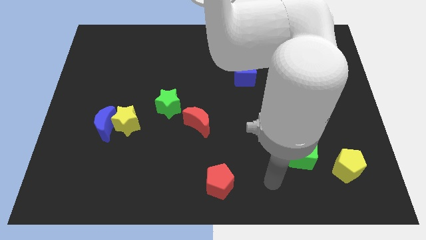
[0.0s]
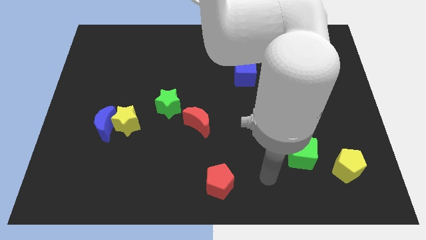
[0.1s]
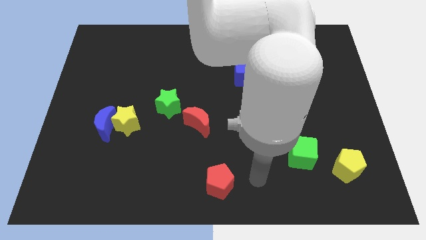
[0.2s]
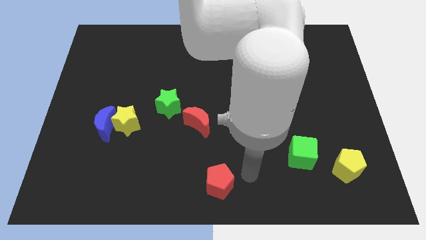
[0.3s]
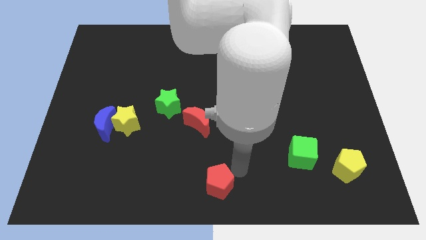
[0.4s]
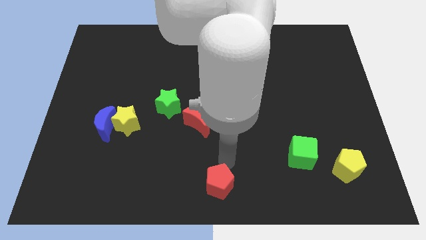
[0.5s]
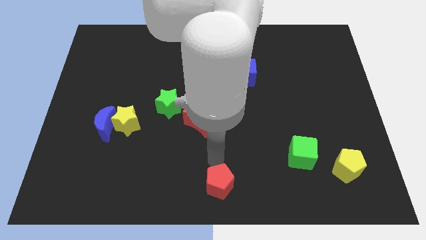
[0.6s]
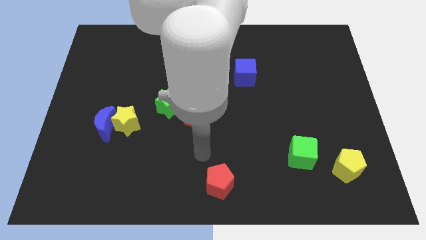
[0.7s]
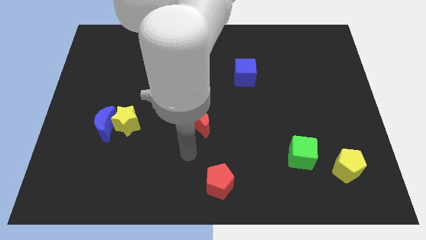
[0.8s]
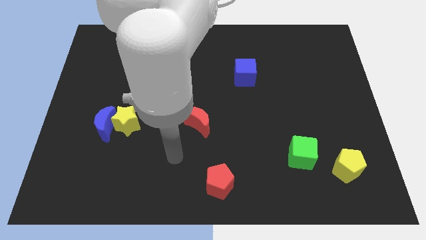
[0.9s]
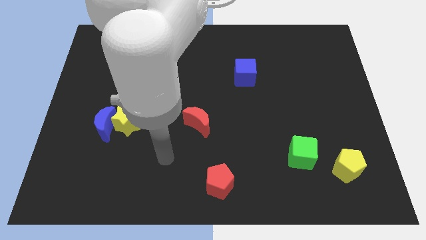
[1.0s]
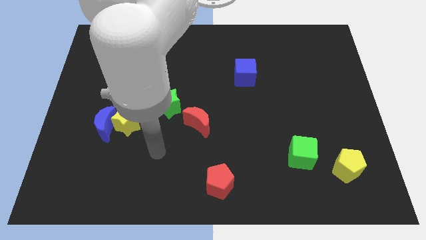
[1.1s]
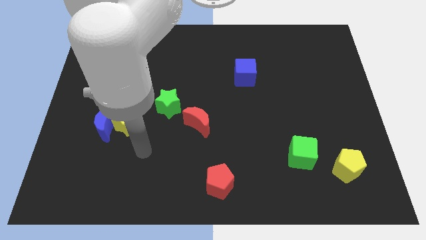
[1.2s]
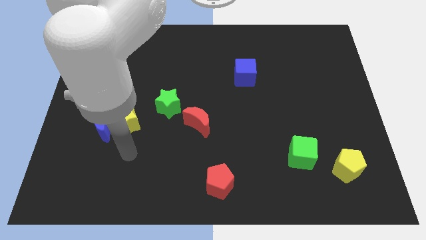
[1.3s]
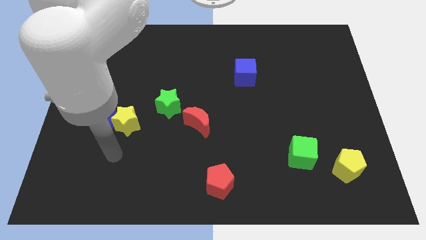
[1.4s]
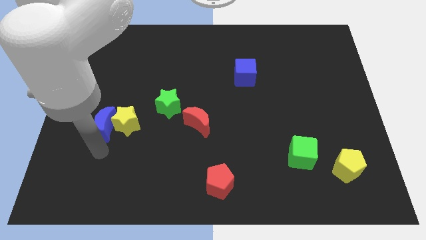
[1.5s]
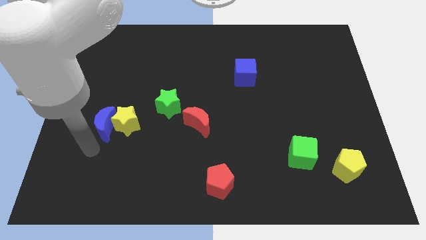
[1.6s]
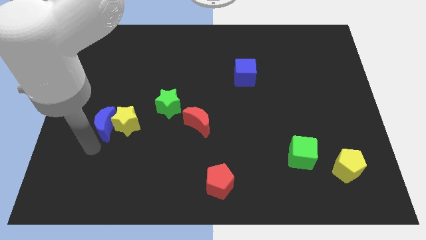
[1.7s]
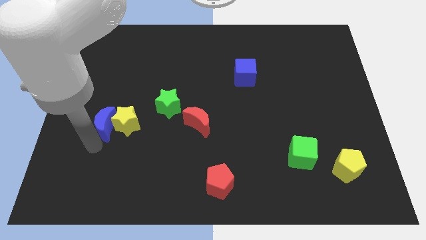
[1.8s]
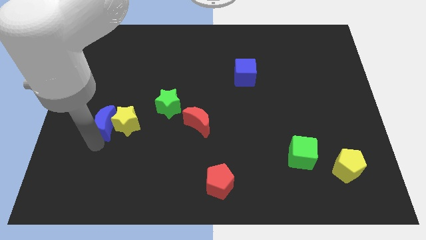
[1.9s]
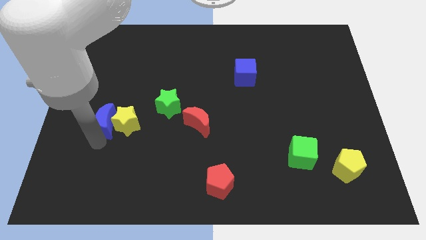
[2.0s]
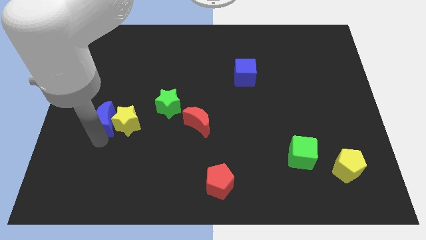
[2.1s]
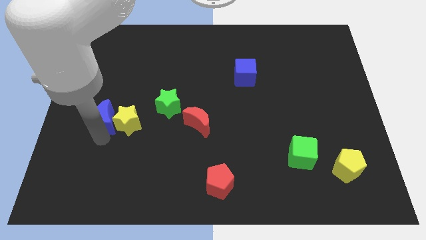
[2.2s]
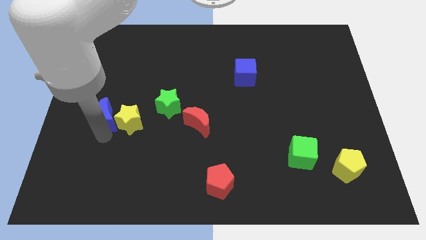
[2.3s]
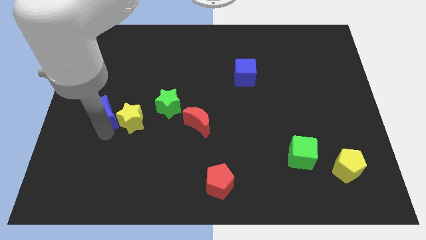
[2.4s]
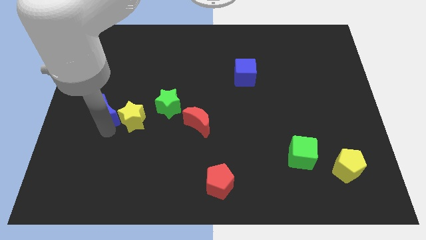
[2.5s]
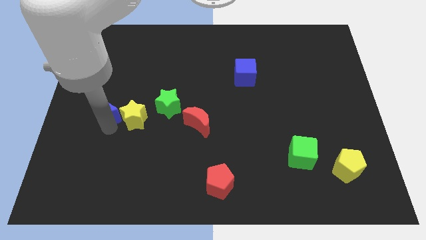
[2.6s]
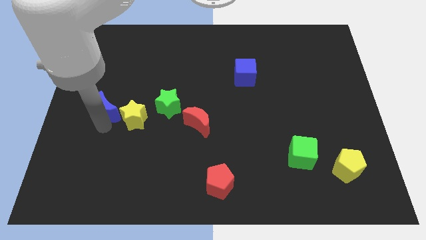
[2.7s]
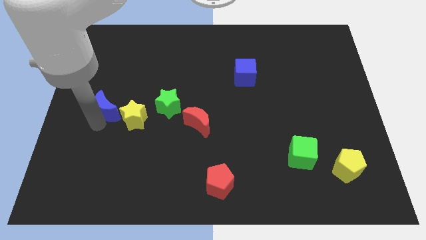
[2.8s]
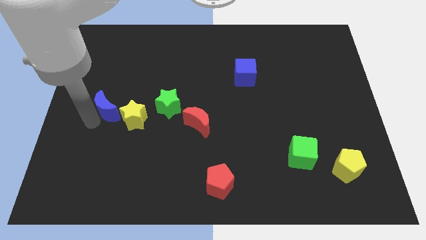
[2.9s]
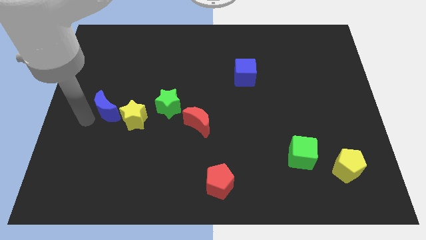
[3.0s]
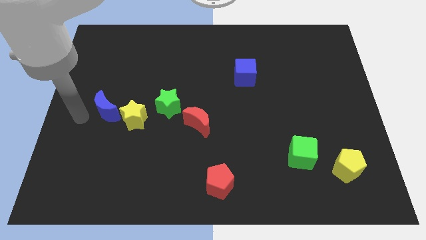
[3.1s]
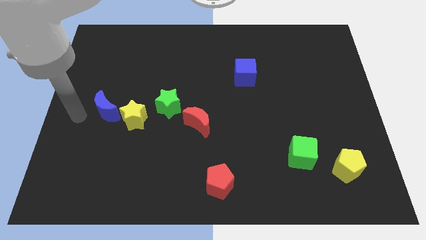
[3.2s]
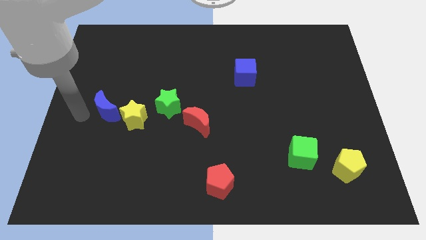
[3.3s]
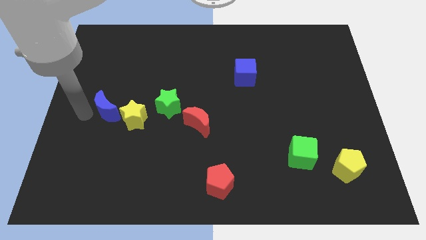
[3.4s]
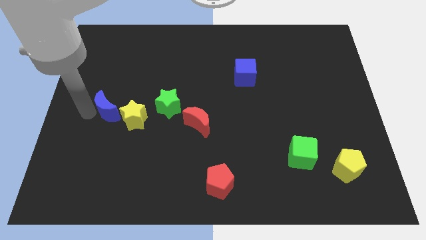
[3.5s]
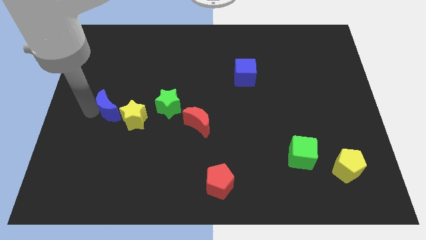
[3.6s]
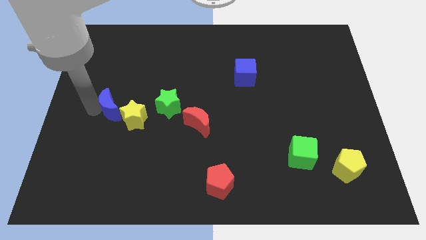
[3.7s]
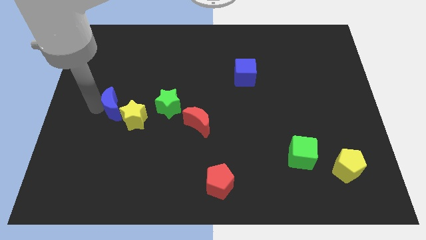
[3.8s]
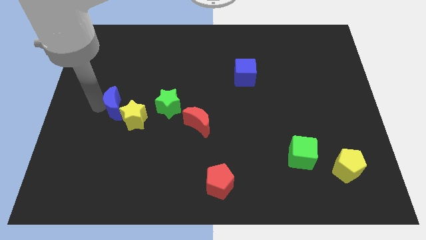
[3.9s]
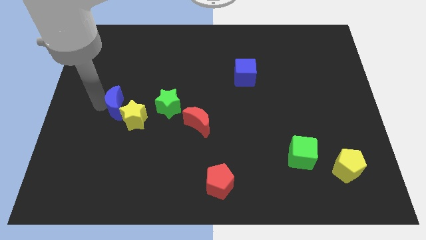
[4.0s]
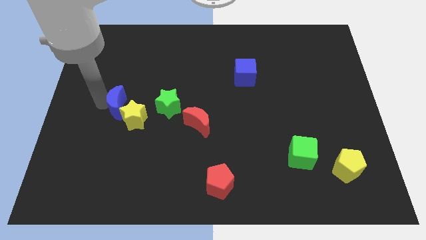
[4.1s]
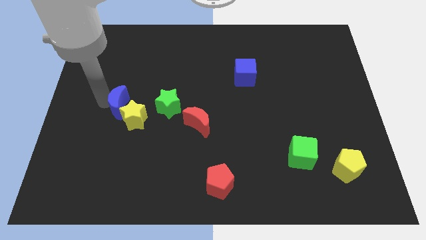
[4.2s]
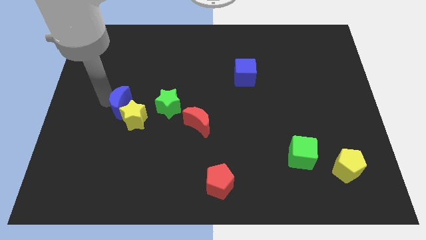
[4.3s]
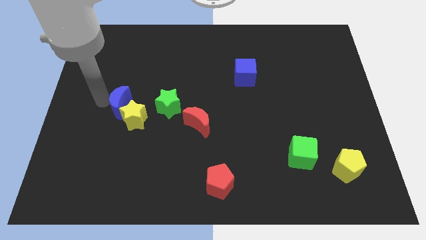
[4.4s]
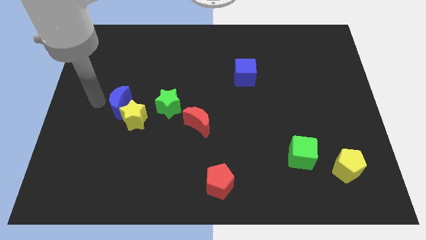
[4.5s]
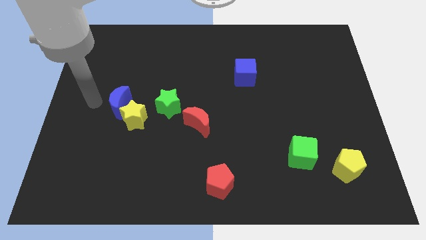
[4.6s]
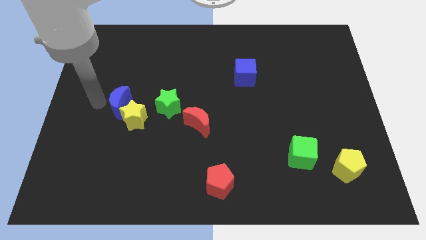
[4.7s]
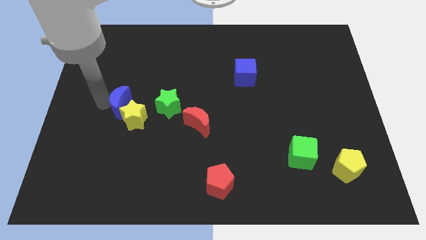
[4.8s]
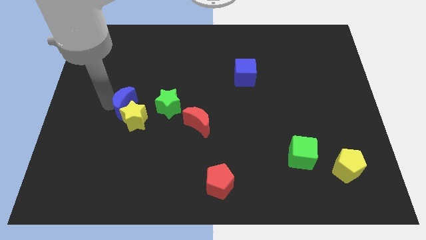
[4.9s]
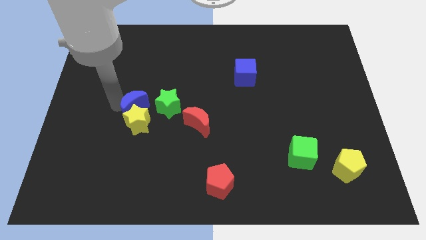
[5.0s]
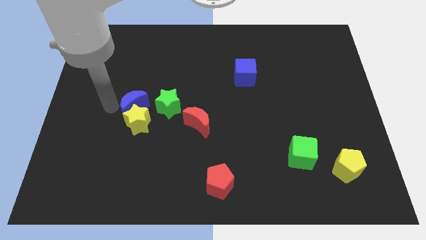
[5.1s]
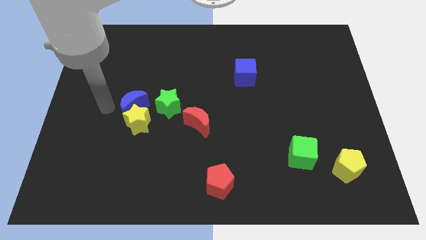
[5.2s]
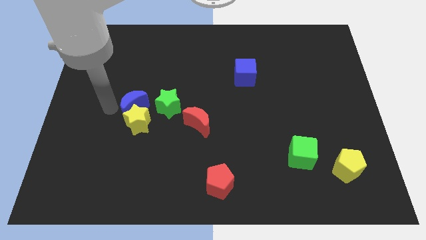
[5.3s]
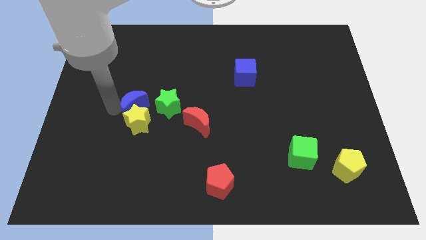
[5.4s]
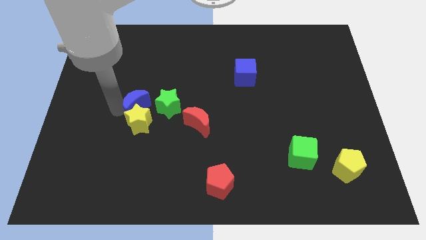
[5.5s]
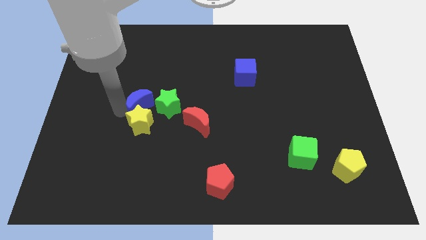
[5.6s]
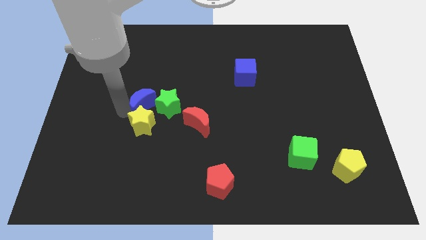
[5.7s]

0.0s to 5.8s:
push the blue moon next to the green star

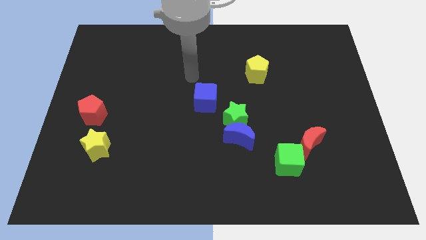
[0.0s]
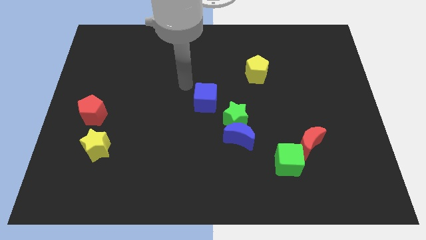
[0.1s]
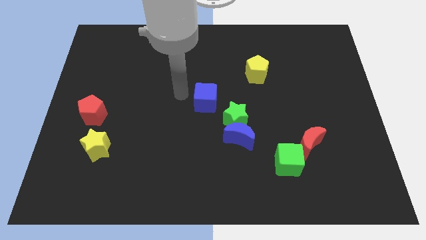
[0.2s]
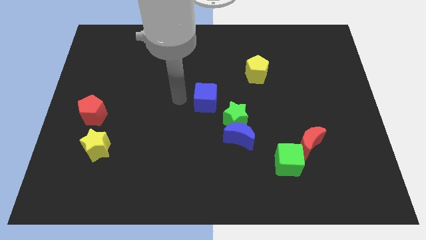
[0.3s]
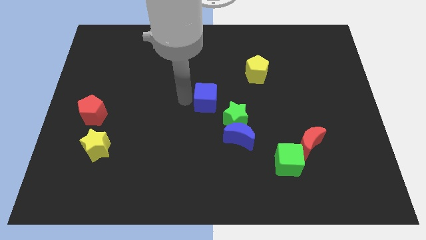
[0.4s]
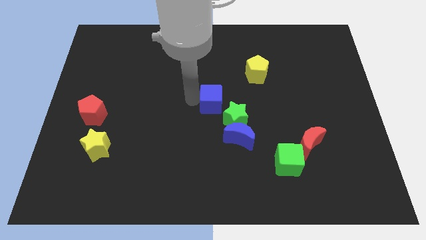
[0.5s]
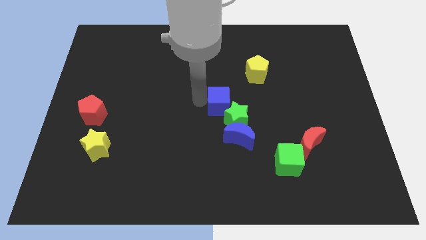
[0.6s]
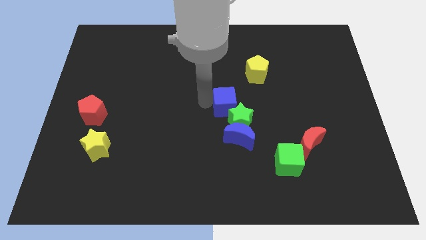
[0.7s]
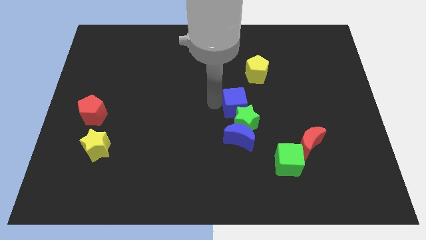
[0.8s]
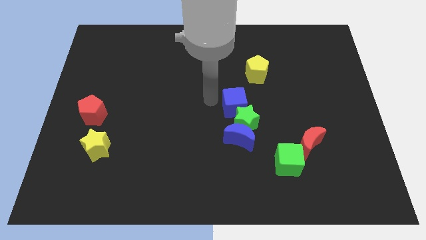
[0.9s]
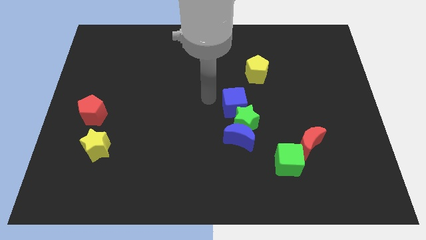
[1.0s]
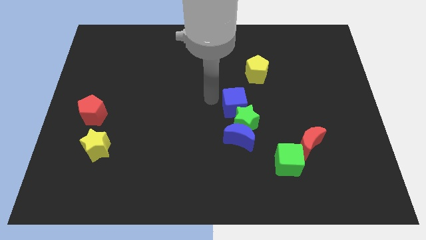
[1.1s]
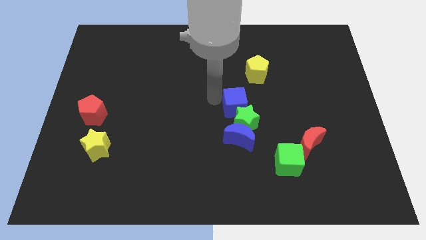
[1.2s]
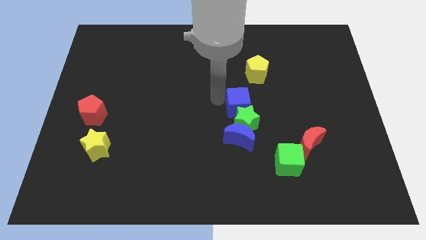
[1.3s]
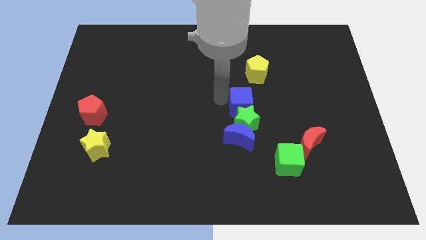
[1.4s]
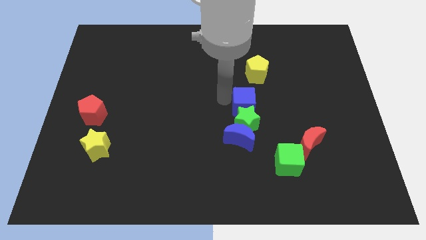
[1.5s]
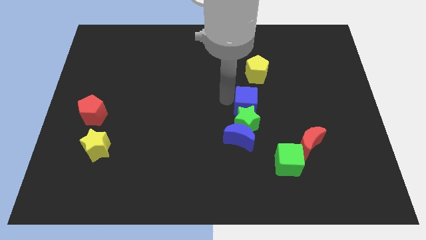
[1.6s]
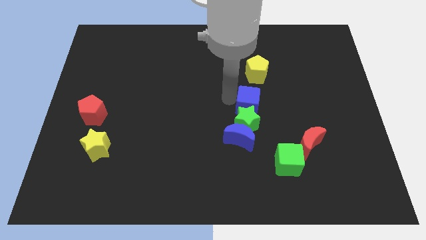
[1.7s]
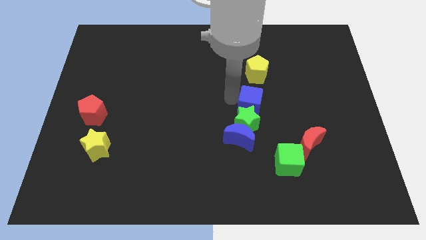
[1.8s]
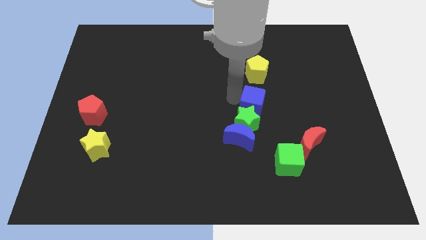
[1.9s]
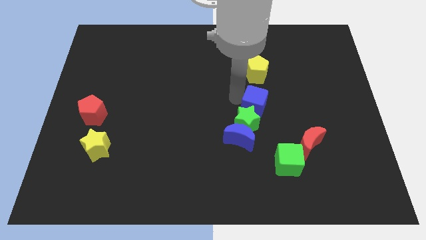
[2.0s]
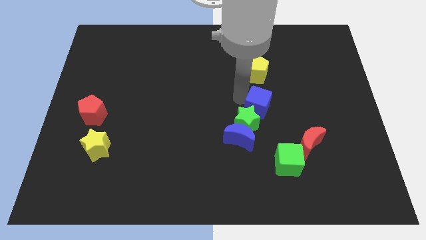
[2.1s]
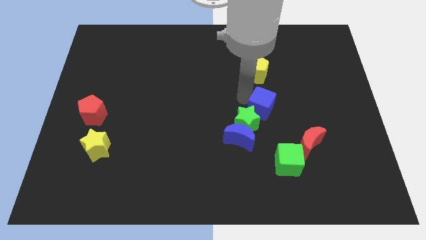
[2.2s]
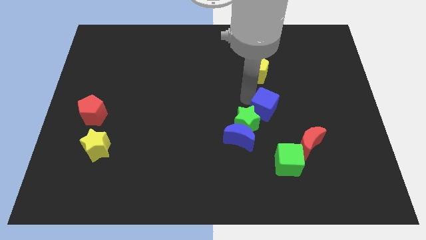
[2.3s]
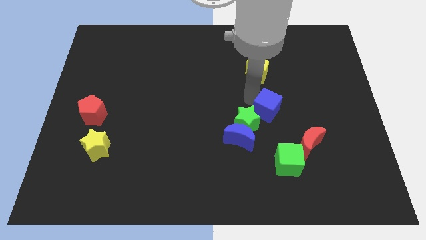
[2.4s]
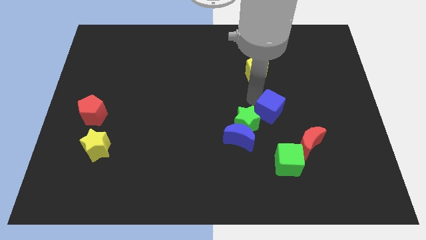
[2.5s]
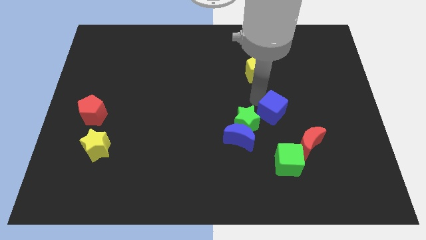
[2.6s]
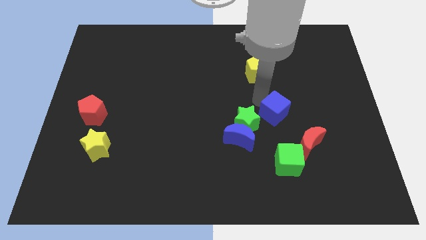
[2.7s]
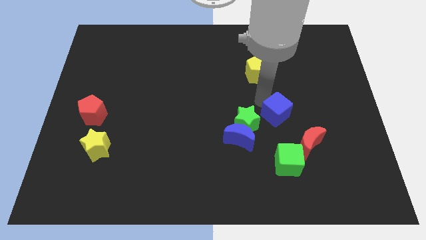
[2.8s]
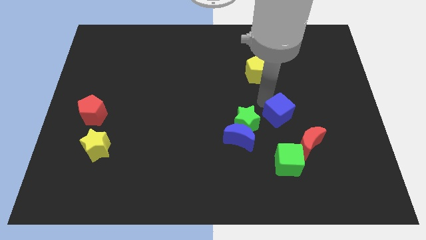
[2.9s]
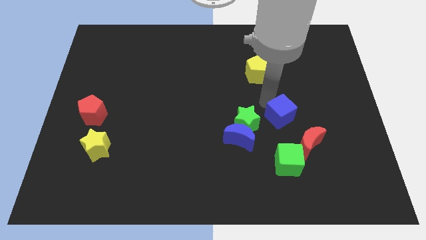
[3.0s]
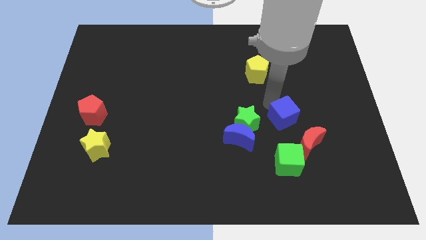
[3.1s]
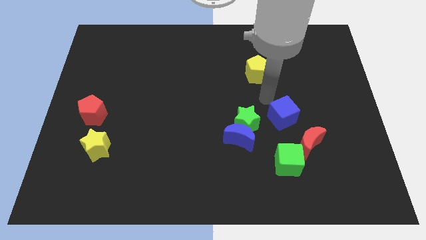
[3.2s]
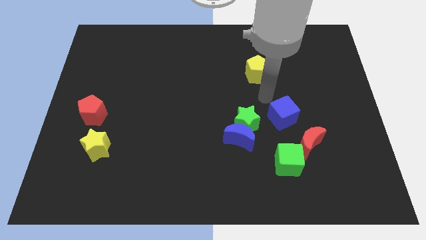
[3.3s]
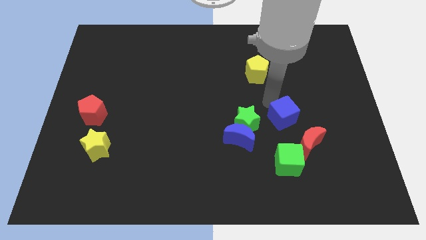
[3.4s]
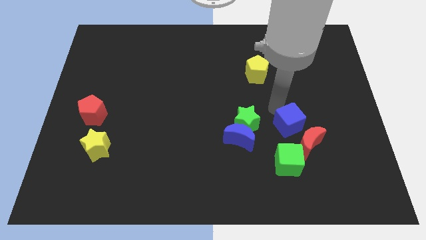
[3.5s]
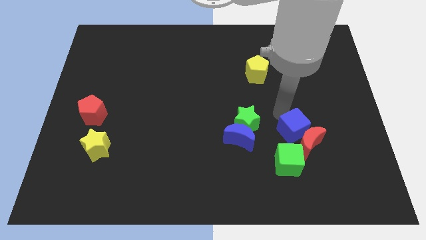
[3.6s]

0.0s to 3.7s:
move the blue cube close to the red moon
